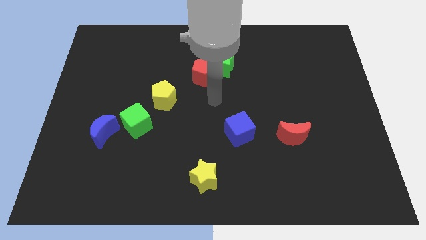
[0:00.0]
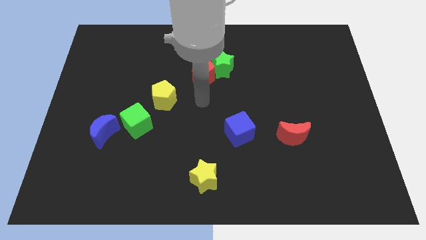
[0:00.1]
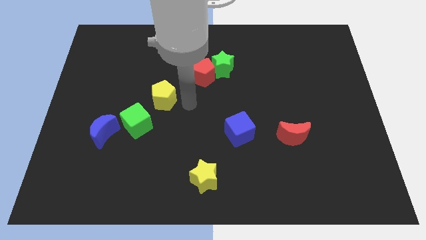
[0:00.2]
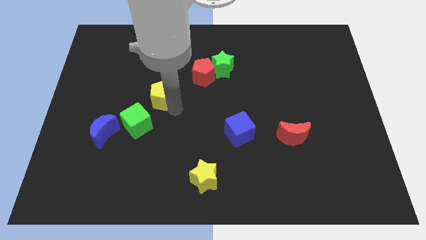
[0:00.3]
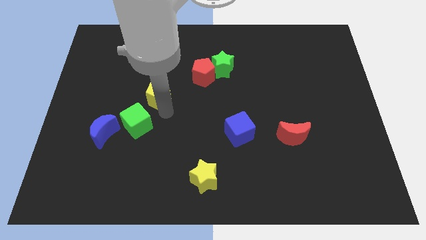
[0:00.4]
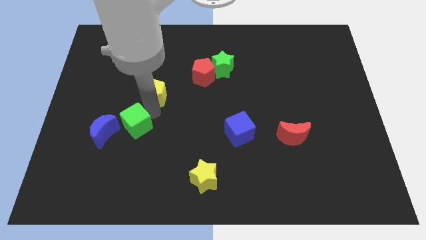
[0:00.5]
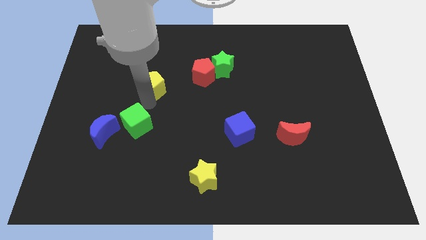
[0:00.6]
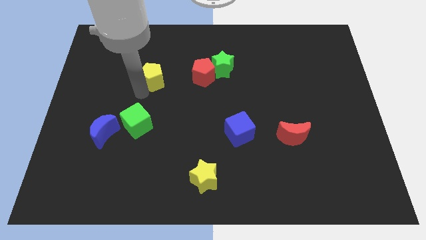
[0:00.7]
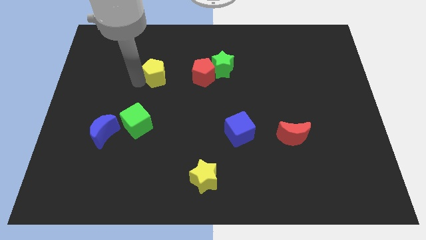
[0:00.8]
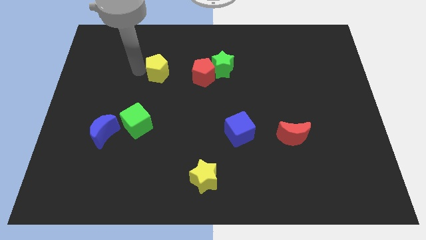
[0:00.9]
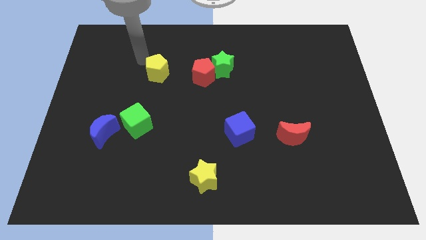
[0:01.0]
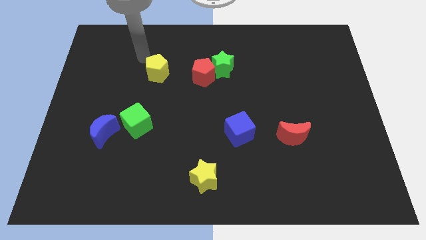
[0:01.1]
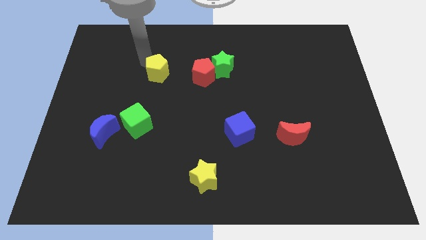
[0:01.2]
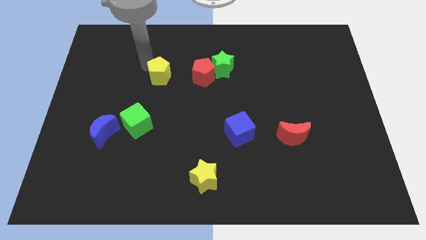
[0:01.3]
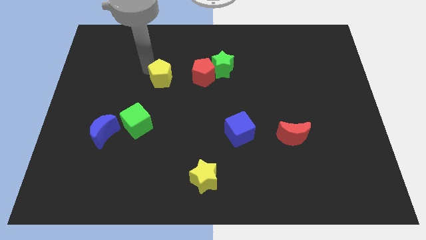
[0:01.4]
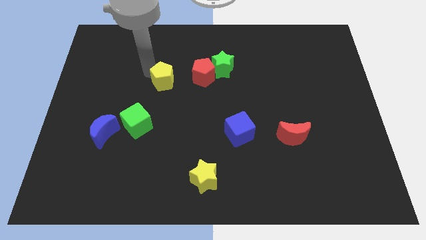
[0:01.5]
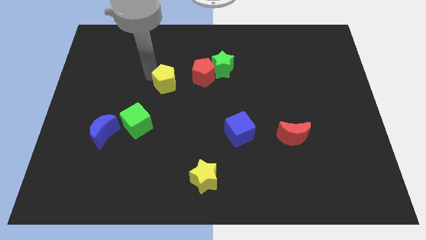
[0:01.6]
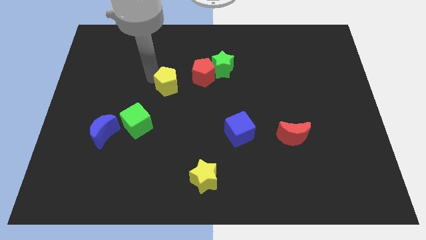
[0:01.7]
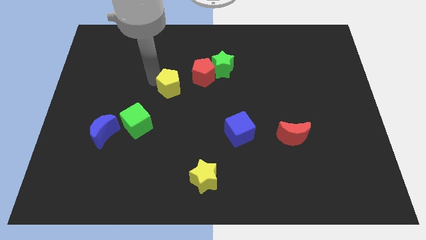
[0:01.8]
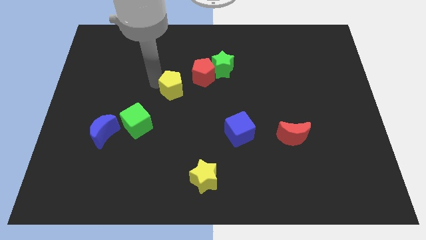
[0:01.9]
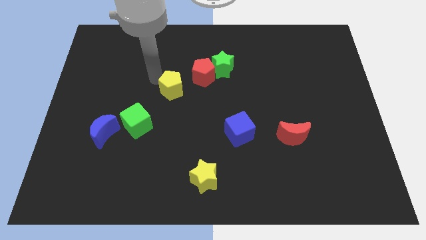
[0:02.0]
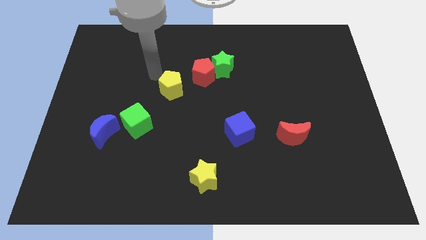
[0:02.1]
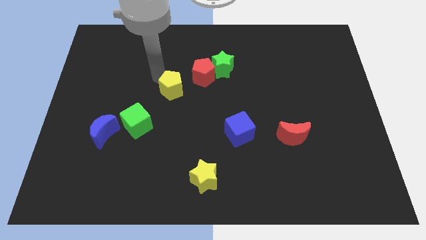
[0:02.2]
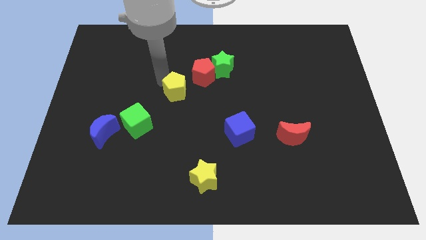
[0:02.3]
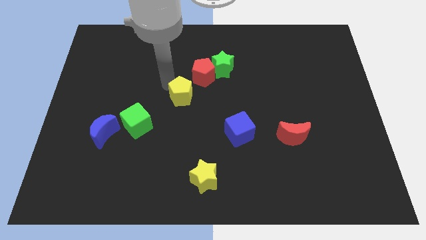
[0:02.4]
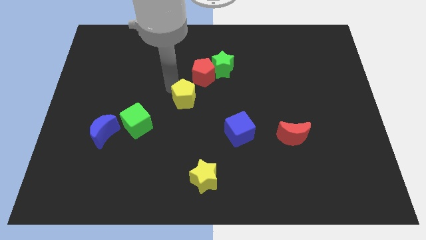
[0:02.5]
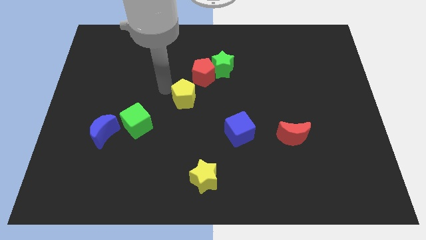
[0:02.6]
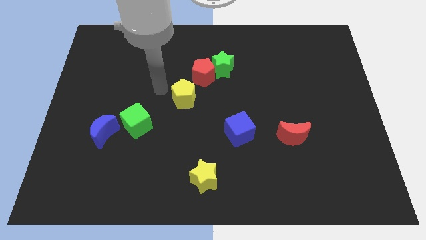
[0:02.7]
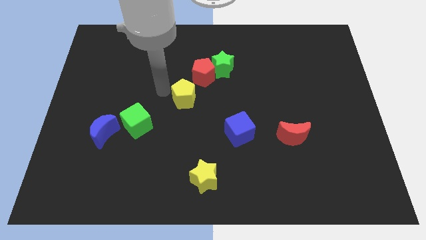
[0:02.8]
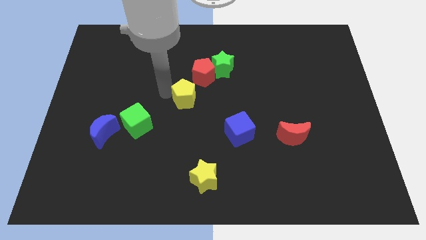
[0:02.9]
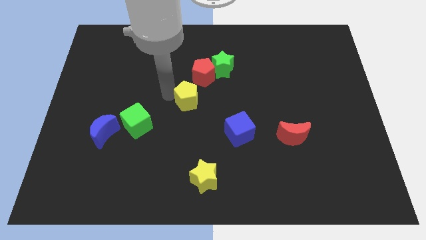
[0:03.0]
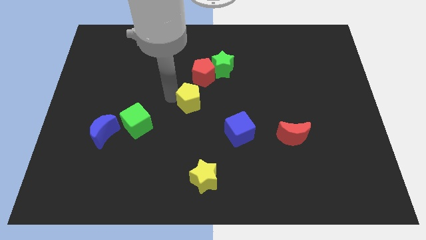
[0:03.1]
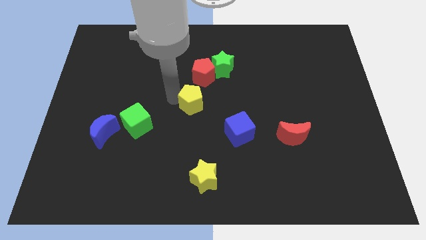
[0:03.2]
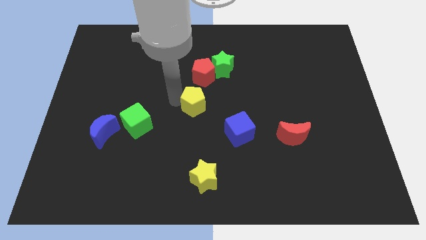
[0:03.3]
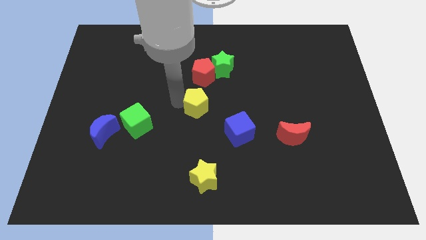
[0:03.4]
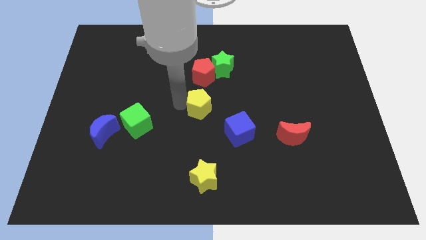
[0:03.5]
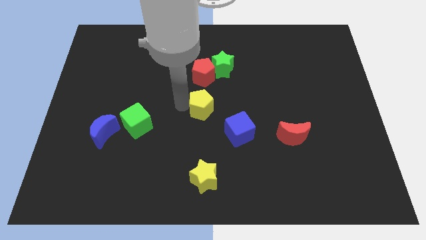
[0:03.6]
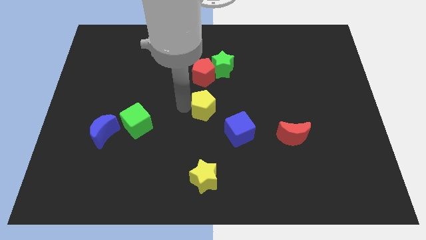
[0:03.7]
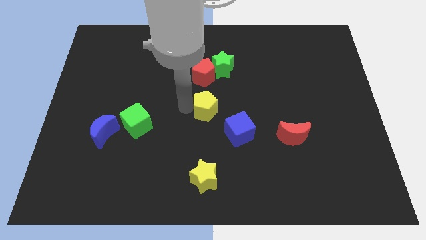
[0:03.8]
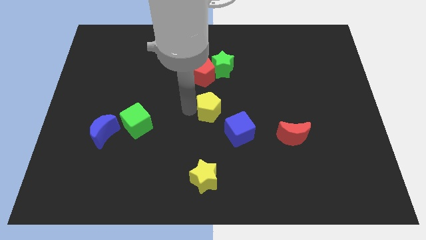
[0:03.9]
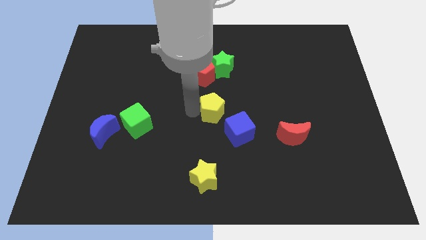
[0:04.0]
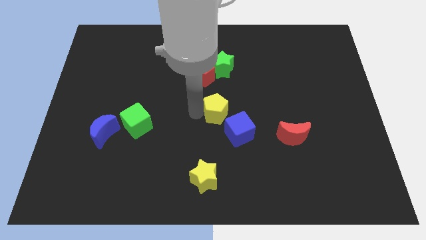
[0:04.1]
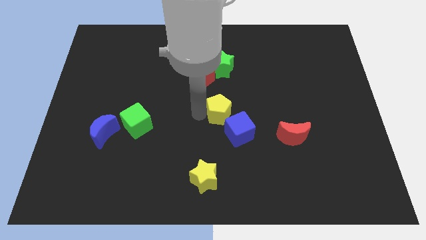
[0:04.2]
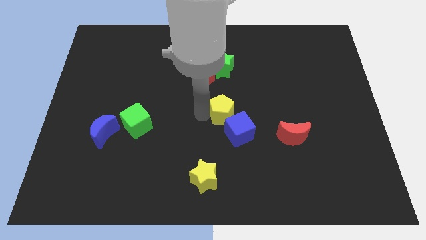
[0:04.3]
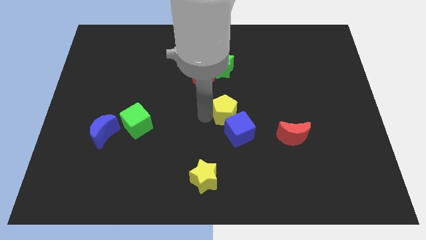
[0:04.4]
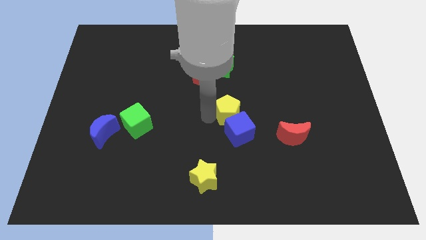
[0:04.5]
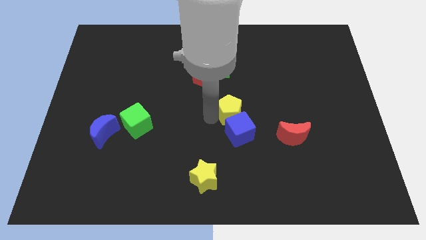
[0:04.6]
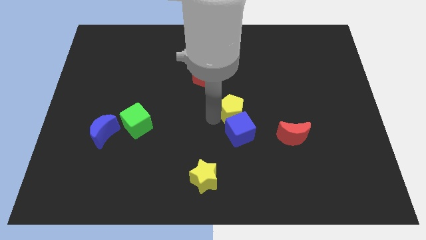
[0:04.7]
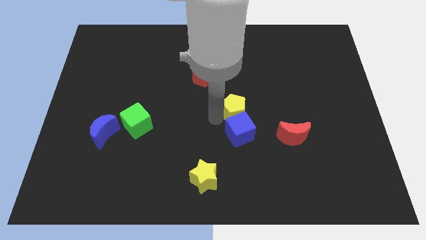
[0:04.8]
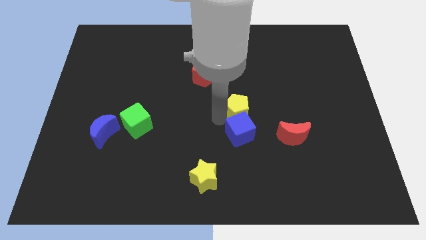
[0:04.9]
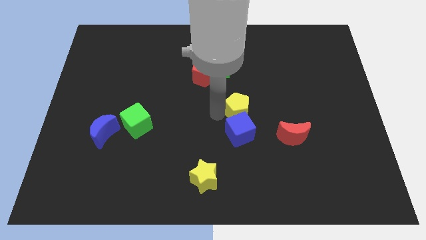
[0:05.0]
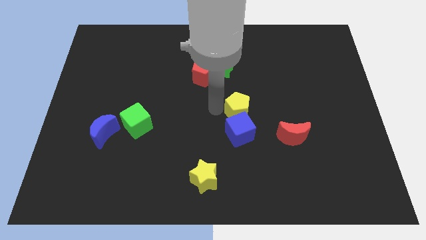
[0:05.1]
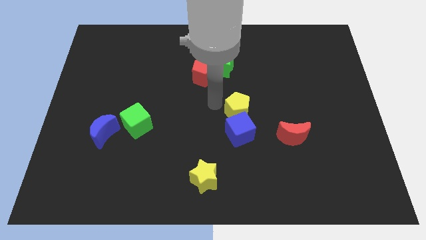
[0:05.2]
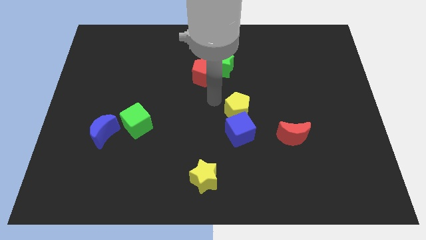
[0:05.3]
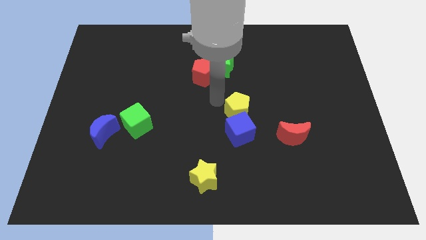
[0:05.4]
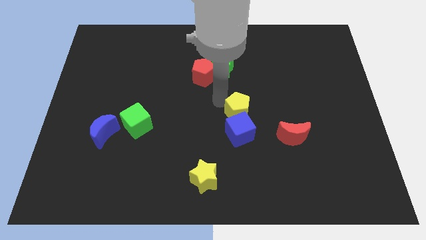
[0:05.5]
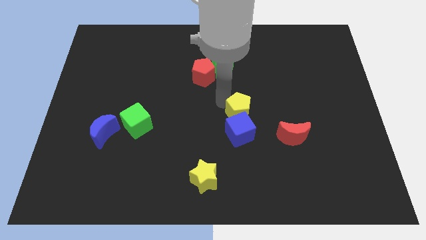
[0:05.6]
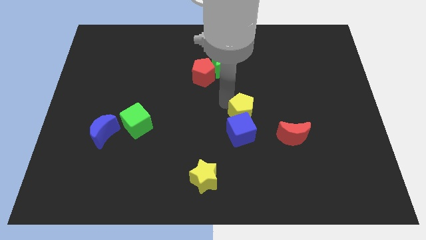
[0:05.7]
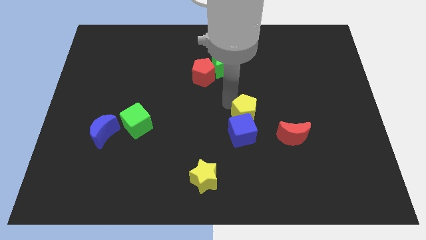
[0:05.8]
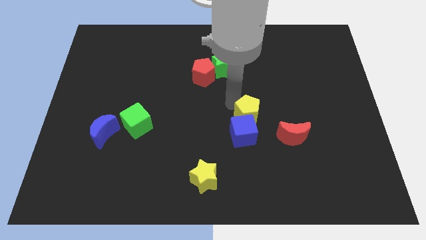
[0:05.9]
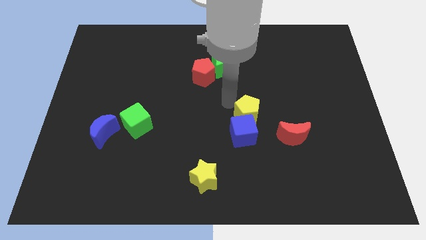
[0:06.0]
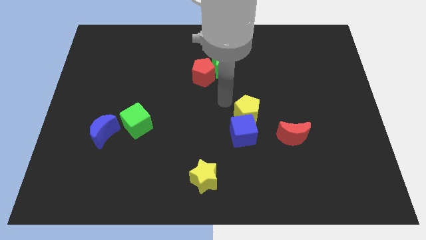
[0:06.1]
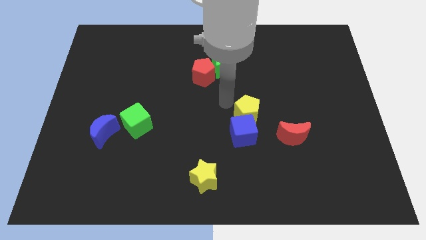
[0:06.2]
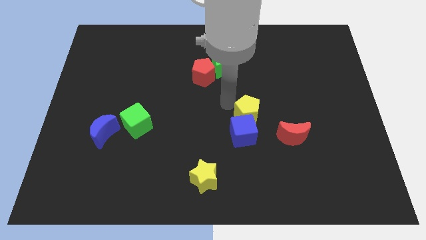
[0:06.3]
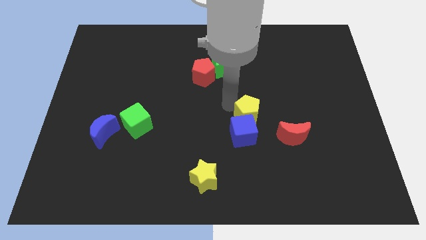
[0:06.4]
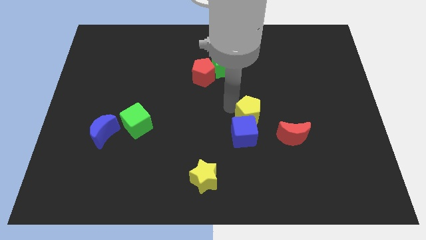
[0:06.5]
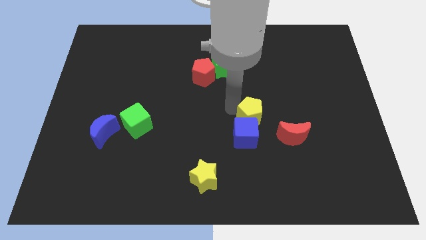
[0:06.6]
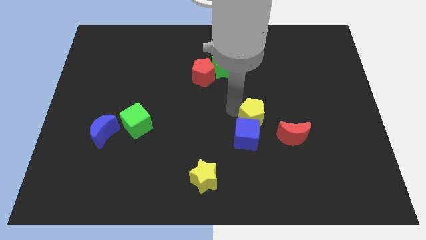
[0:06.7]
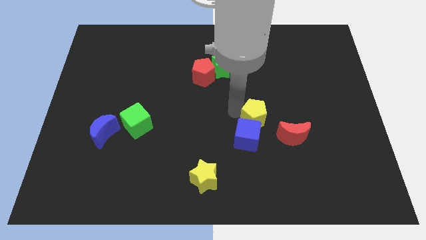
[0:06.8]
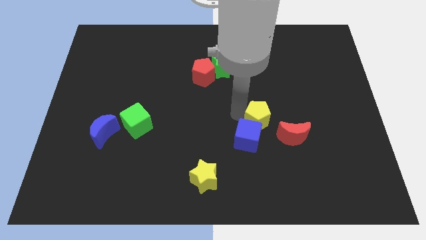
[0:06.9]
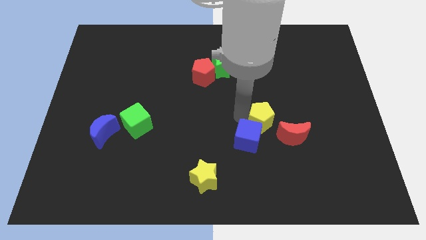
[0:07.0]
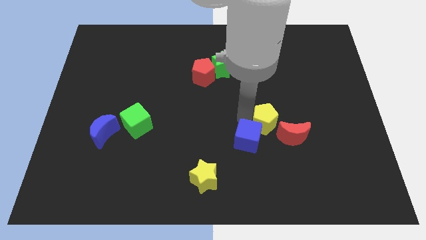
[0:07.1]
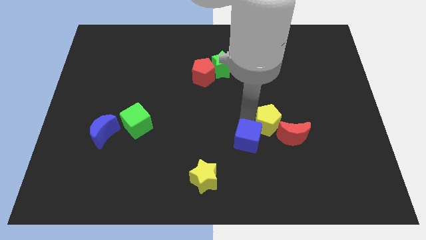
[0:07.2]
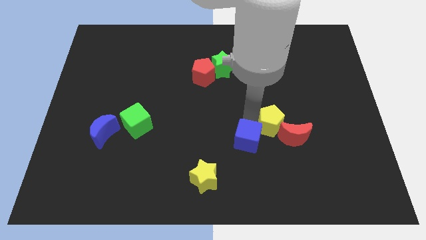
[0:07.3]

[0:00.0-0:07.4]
put the yellow pentagon to the red moon

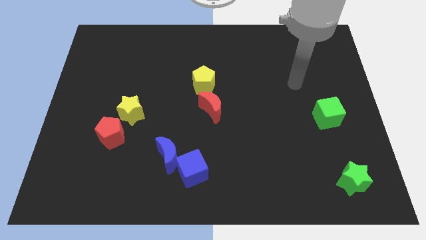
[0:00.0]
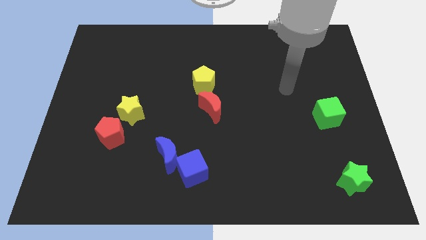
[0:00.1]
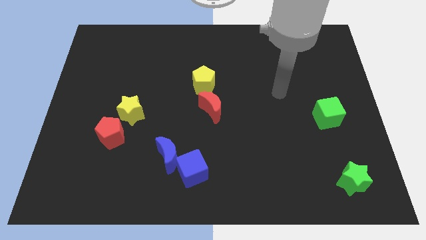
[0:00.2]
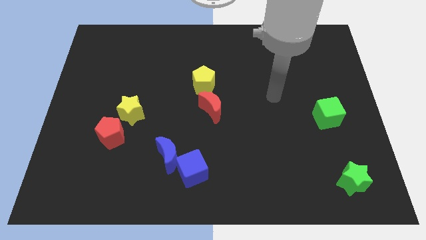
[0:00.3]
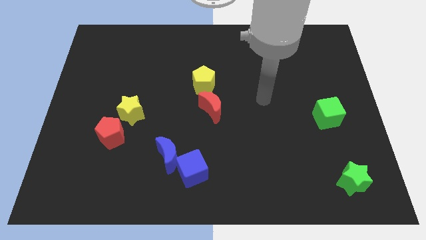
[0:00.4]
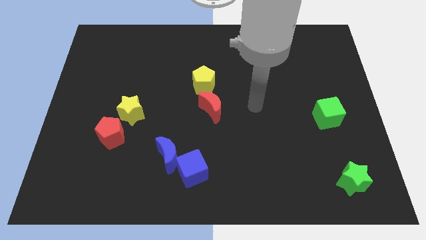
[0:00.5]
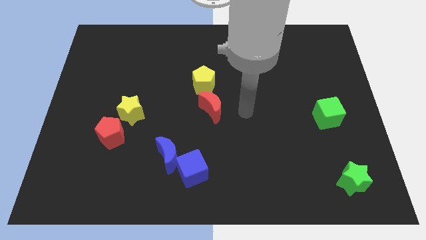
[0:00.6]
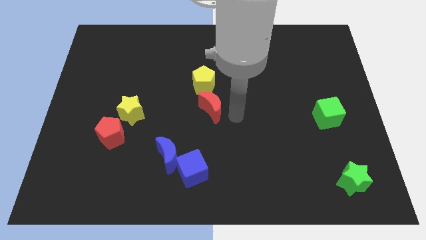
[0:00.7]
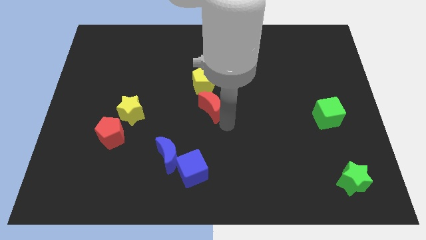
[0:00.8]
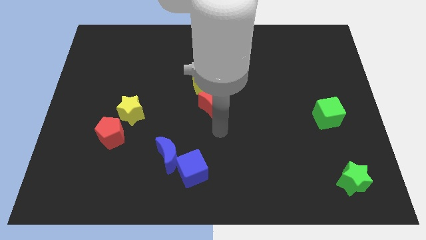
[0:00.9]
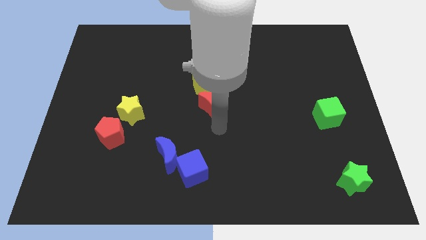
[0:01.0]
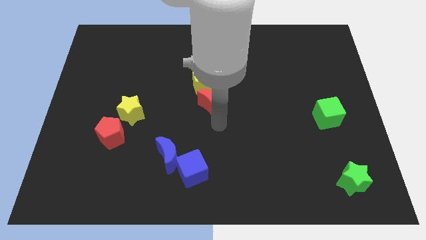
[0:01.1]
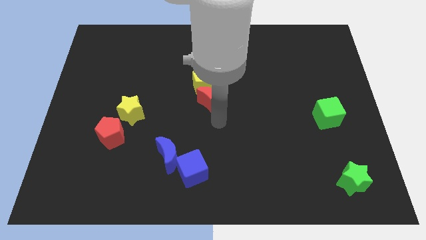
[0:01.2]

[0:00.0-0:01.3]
push the red moon to the yellow pentagon
